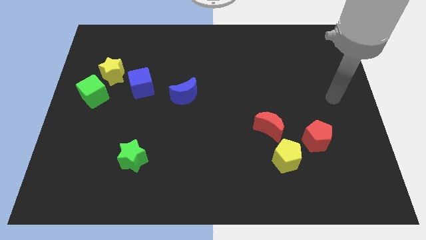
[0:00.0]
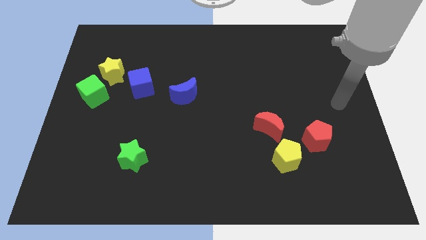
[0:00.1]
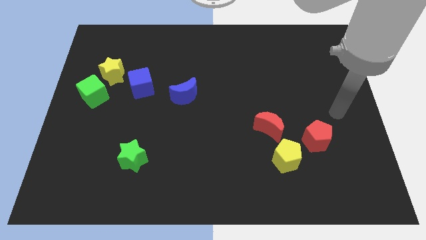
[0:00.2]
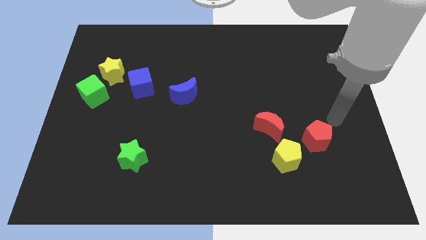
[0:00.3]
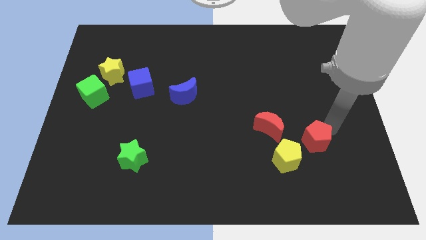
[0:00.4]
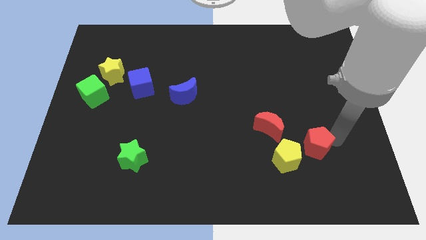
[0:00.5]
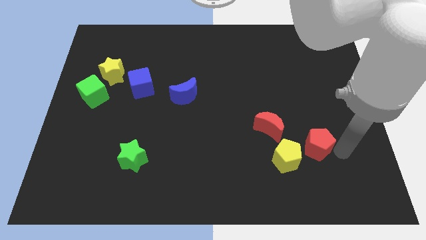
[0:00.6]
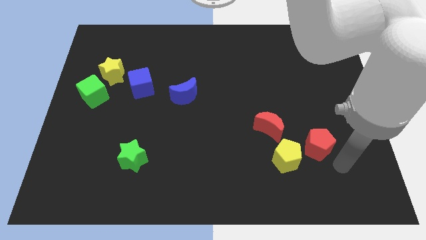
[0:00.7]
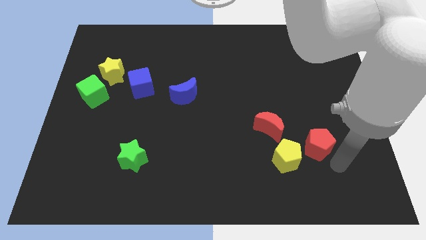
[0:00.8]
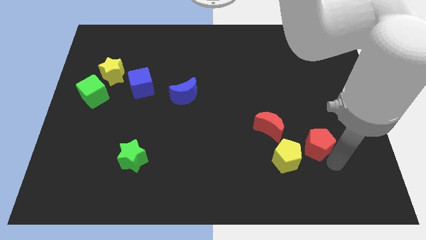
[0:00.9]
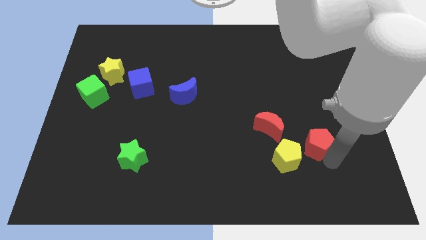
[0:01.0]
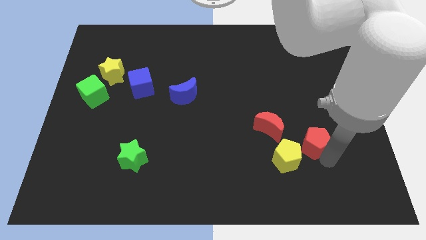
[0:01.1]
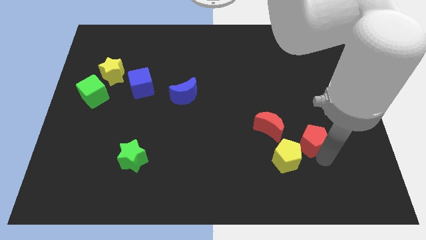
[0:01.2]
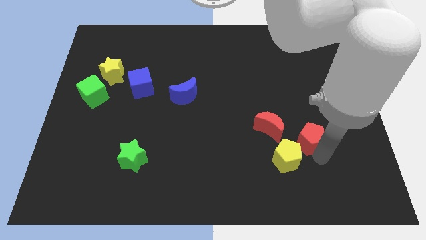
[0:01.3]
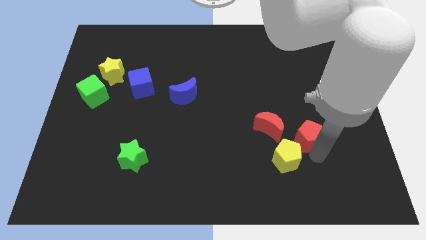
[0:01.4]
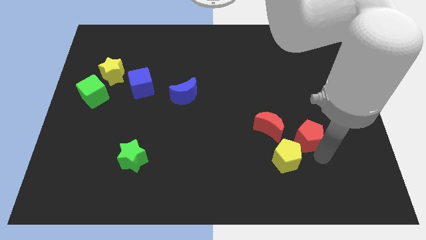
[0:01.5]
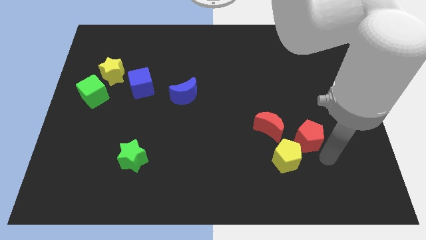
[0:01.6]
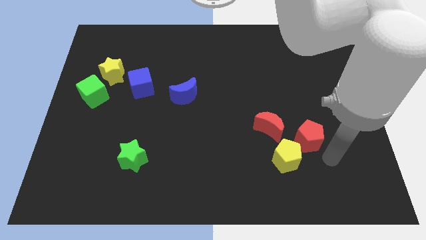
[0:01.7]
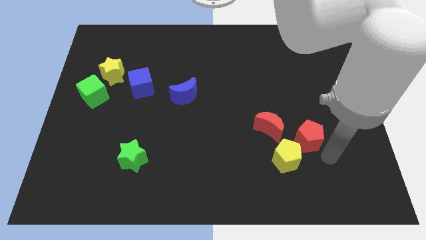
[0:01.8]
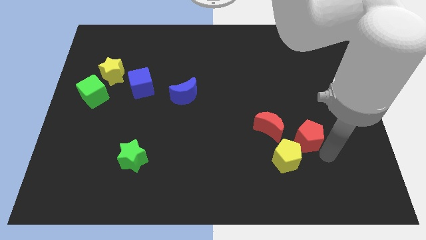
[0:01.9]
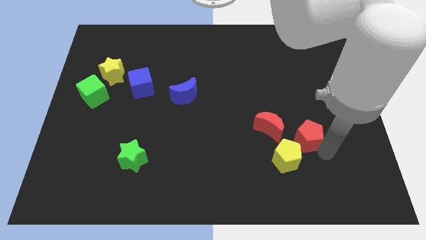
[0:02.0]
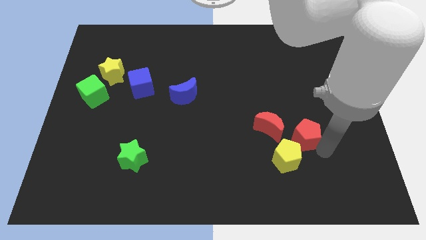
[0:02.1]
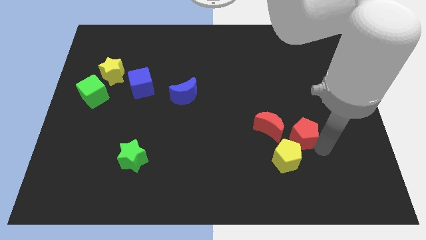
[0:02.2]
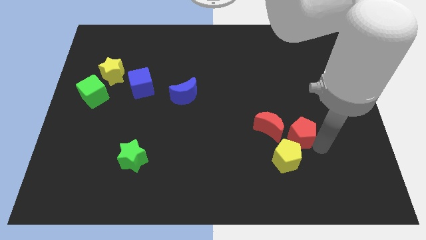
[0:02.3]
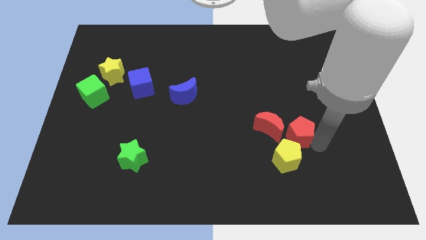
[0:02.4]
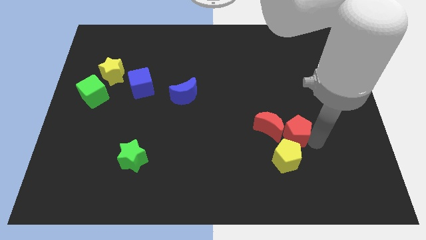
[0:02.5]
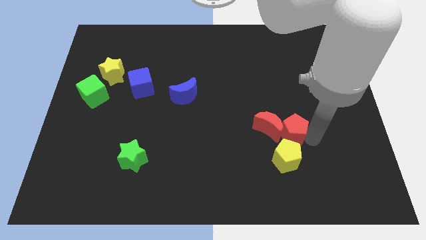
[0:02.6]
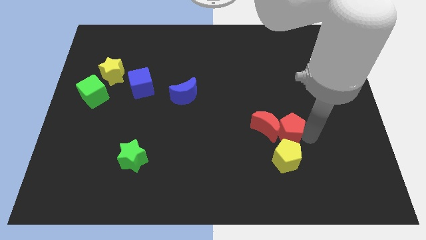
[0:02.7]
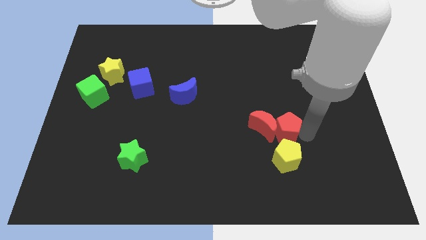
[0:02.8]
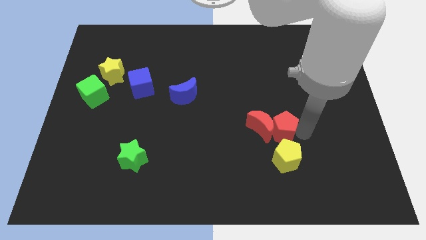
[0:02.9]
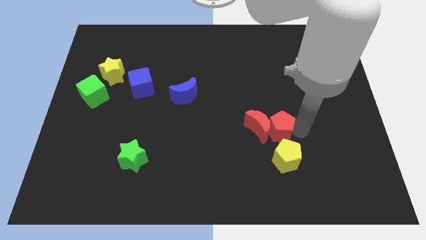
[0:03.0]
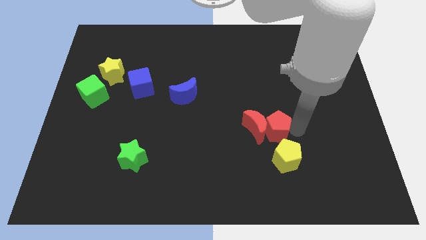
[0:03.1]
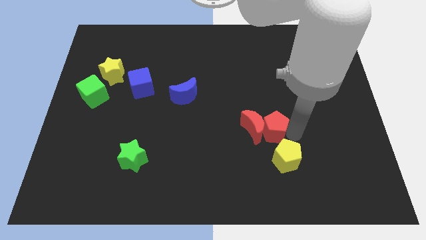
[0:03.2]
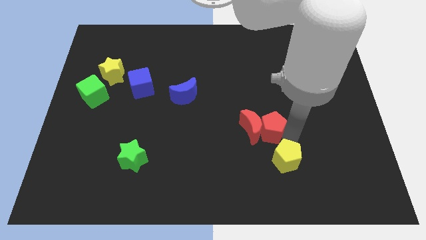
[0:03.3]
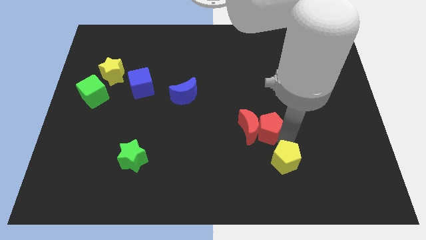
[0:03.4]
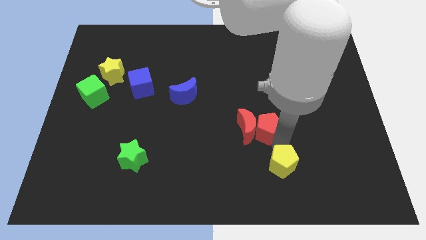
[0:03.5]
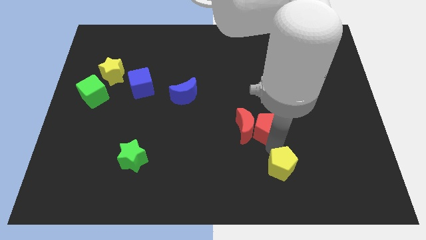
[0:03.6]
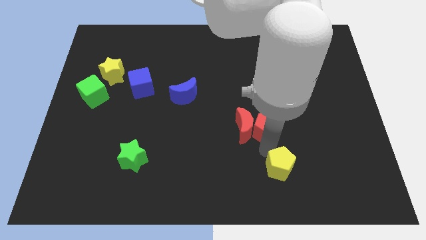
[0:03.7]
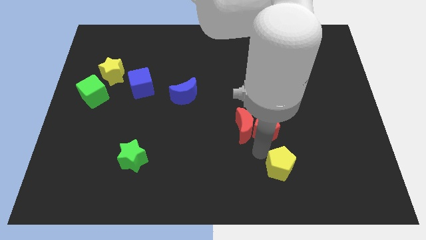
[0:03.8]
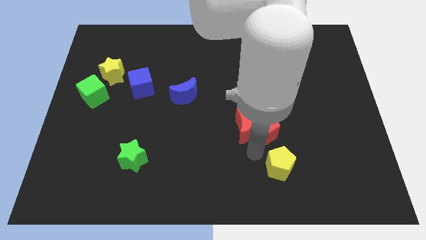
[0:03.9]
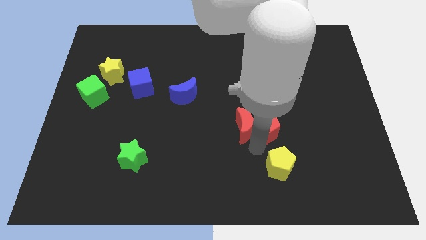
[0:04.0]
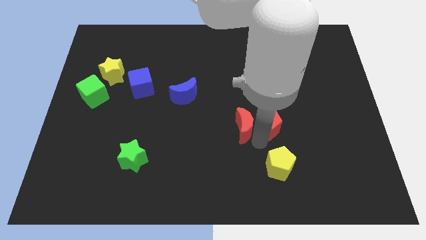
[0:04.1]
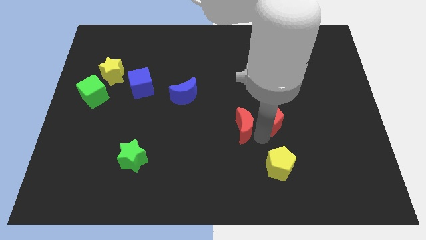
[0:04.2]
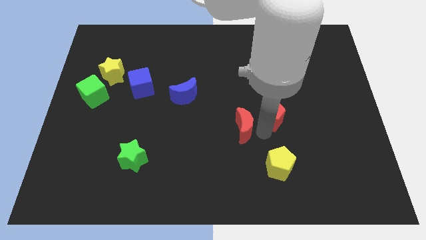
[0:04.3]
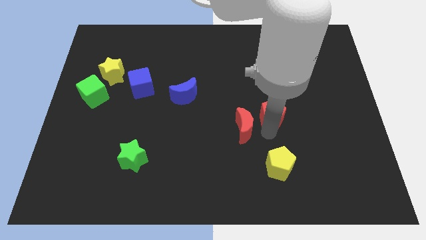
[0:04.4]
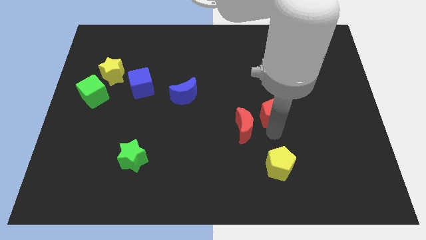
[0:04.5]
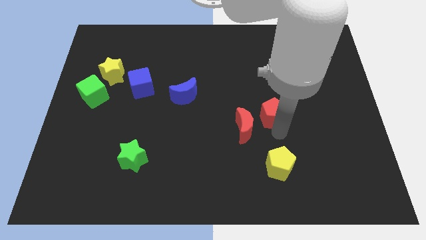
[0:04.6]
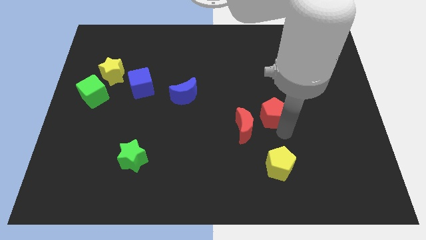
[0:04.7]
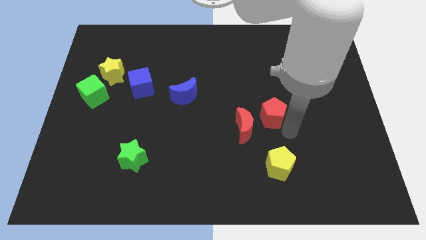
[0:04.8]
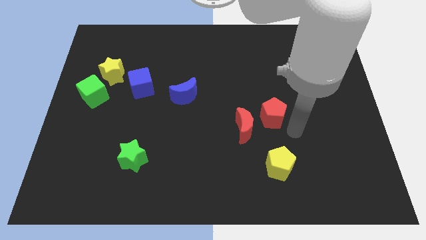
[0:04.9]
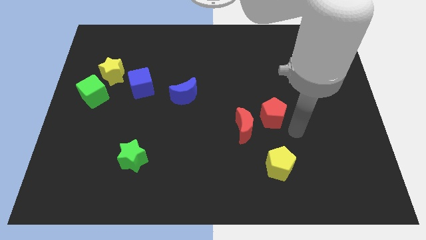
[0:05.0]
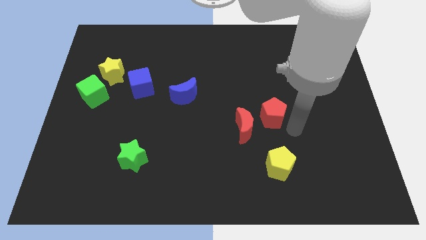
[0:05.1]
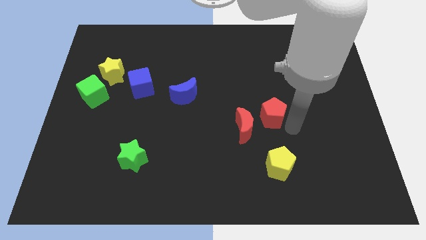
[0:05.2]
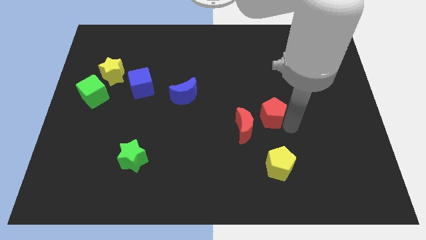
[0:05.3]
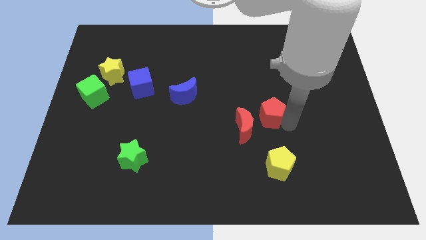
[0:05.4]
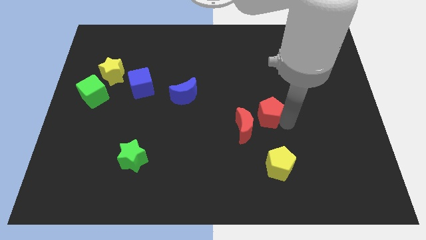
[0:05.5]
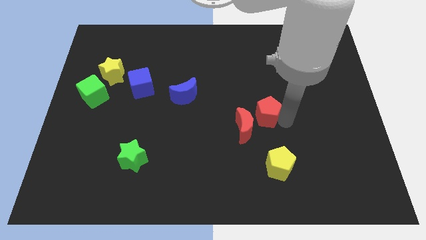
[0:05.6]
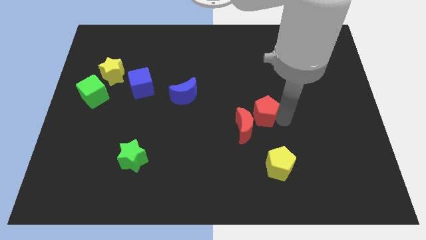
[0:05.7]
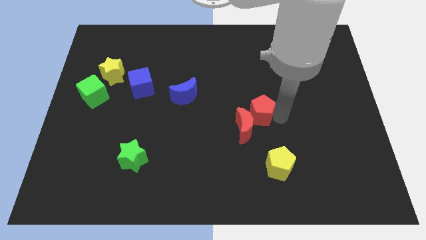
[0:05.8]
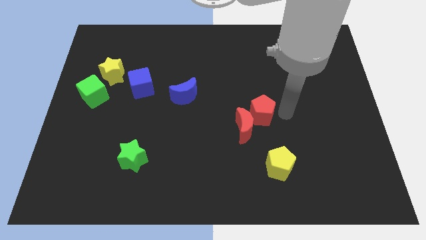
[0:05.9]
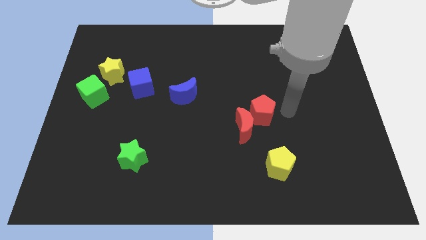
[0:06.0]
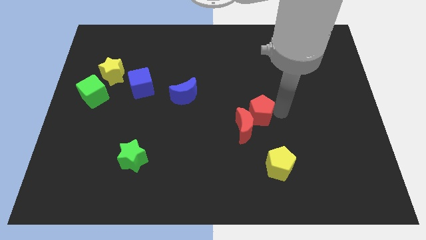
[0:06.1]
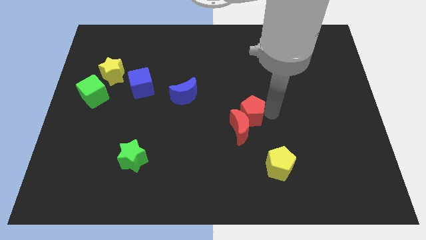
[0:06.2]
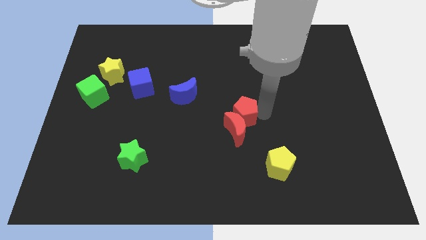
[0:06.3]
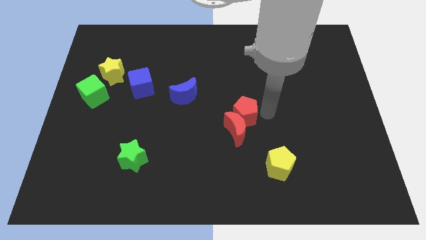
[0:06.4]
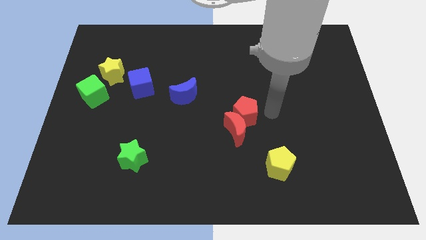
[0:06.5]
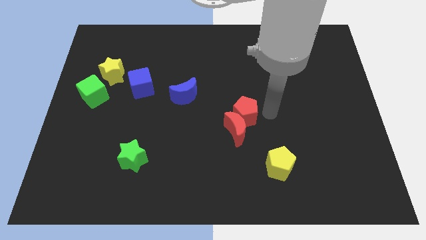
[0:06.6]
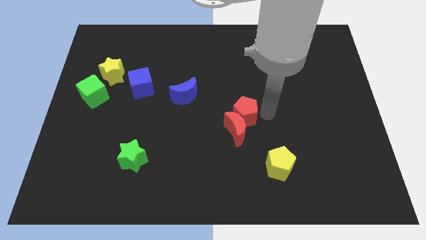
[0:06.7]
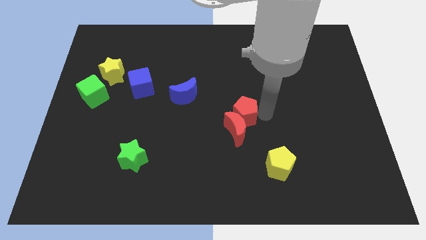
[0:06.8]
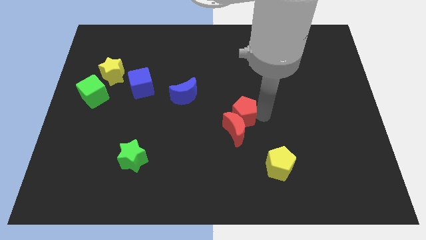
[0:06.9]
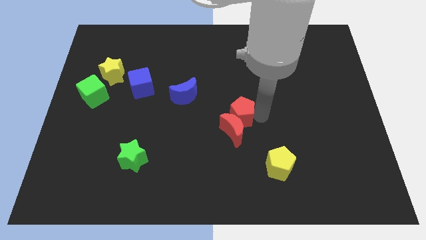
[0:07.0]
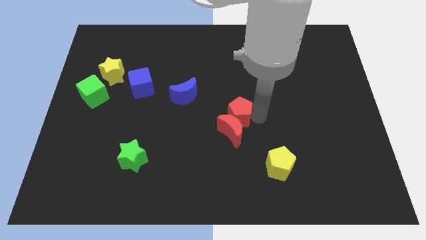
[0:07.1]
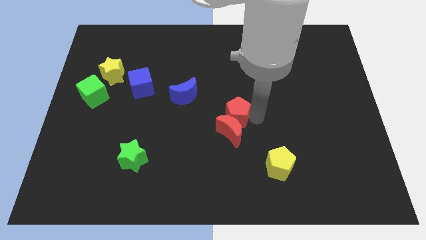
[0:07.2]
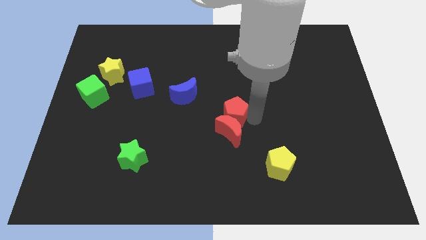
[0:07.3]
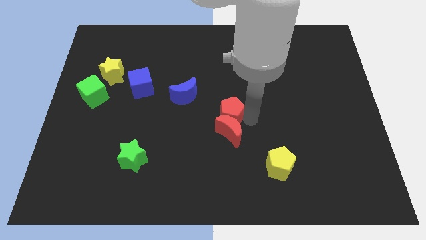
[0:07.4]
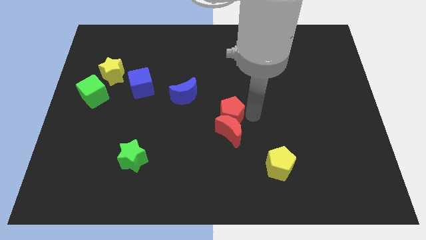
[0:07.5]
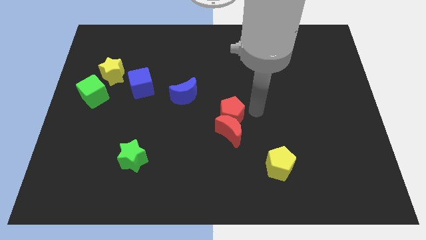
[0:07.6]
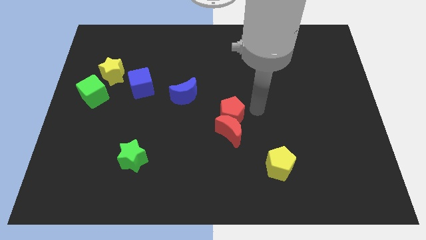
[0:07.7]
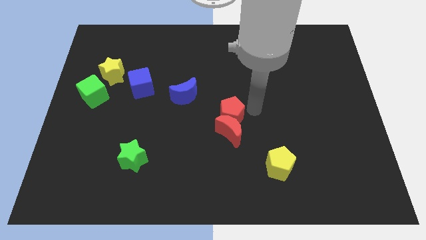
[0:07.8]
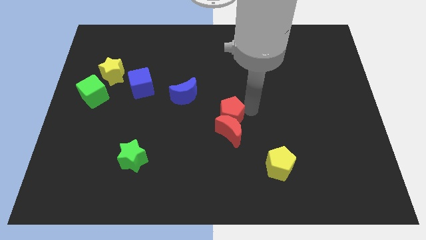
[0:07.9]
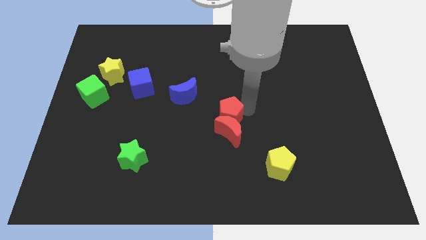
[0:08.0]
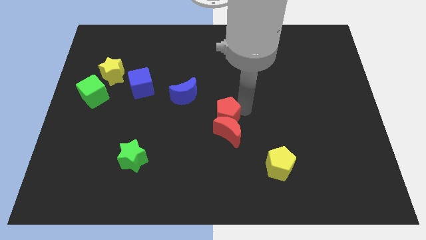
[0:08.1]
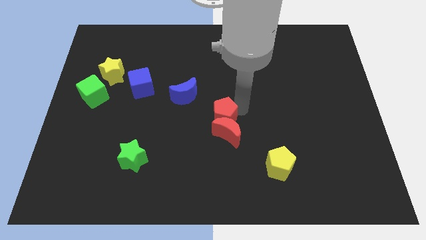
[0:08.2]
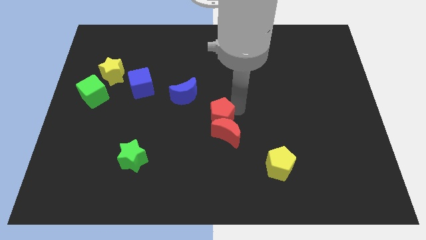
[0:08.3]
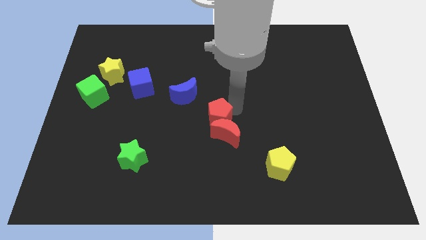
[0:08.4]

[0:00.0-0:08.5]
push the red pentagon left
